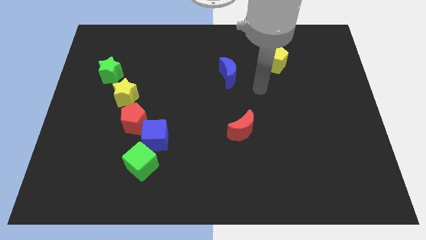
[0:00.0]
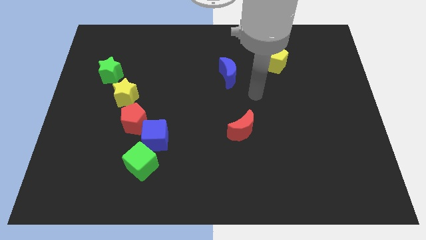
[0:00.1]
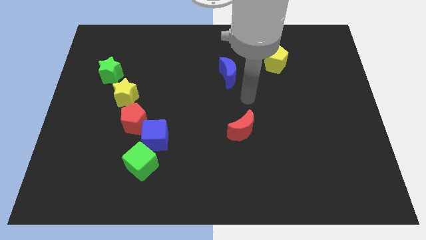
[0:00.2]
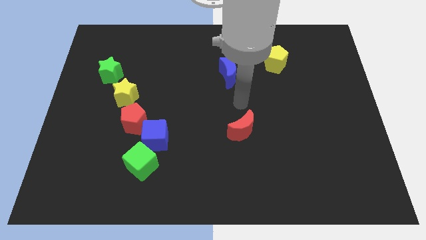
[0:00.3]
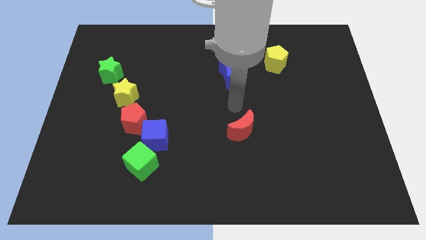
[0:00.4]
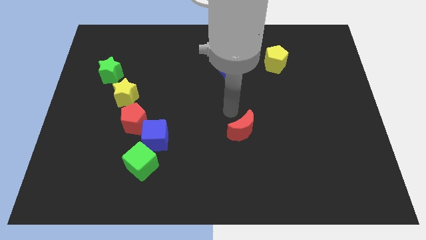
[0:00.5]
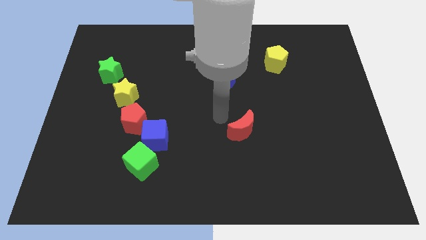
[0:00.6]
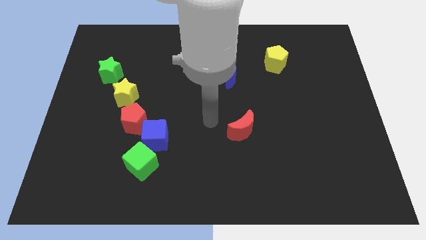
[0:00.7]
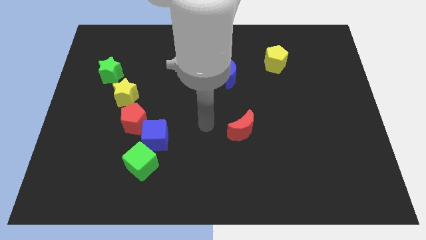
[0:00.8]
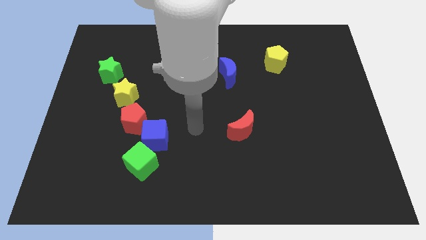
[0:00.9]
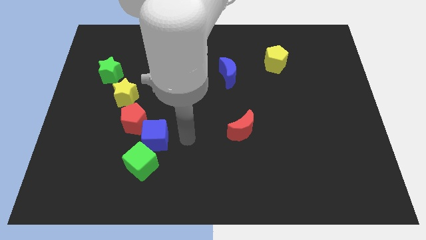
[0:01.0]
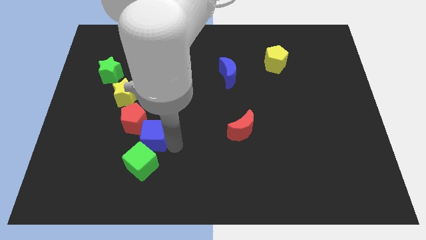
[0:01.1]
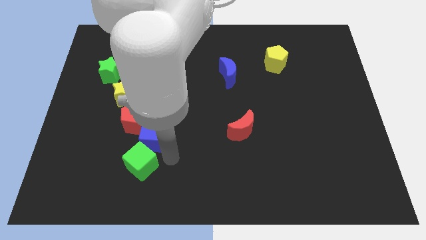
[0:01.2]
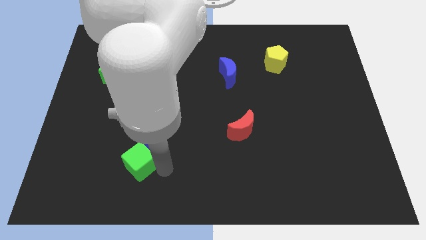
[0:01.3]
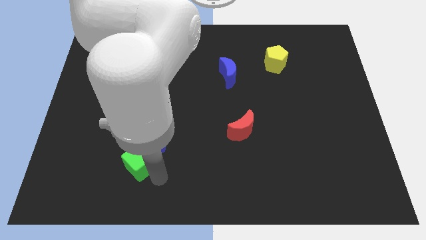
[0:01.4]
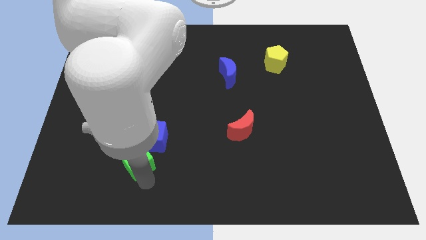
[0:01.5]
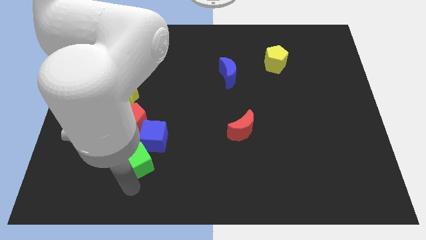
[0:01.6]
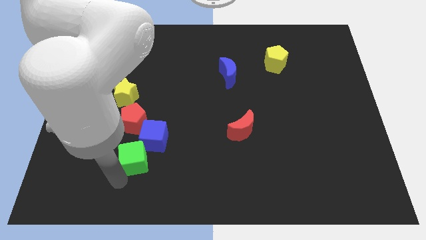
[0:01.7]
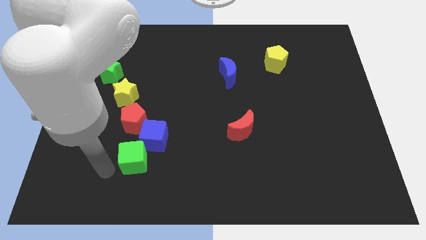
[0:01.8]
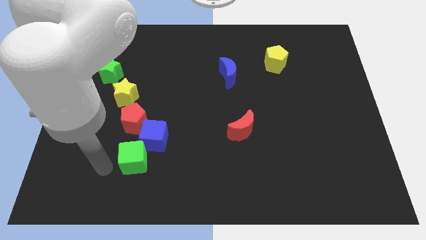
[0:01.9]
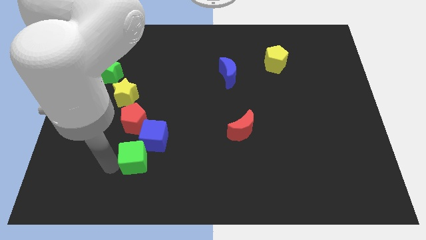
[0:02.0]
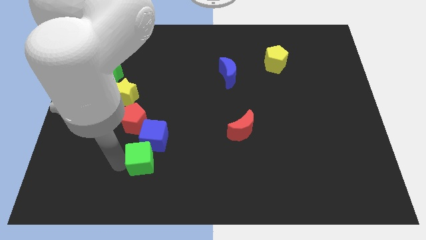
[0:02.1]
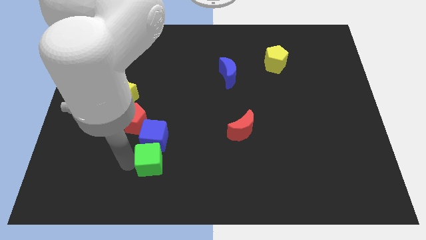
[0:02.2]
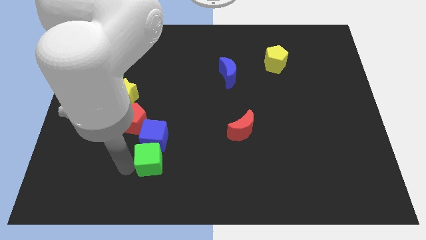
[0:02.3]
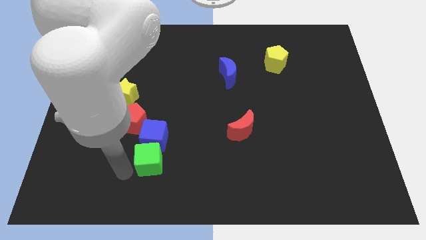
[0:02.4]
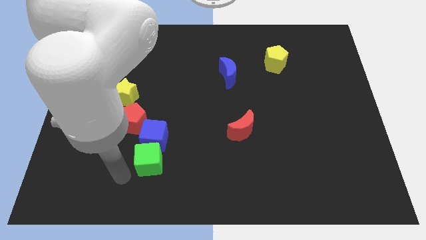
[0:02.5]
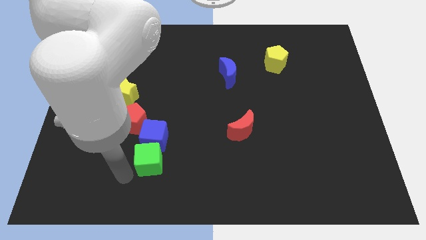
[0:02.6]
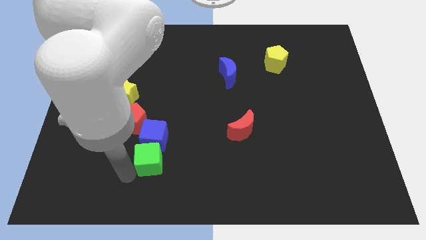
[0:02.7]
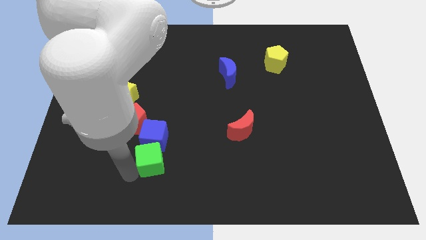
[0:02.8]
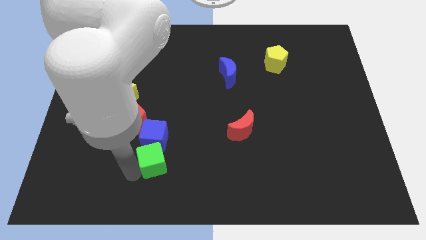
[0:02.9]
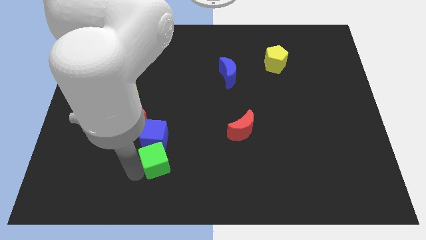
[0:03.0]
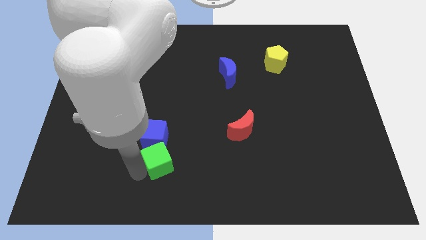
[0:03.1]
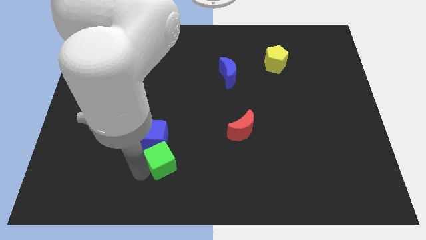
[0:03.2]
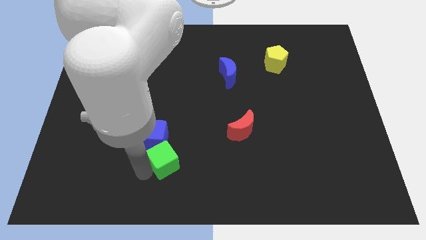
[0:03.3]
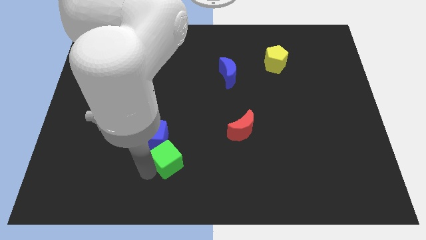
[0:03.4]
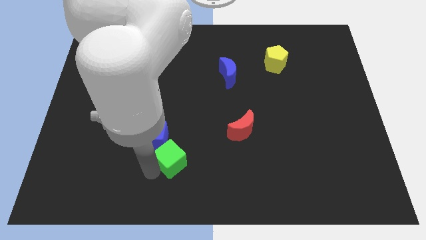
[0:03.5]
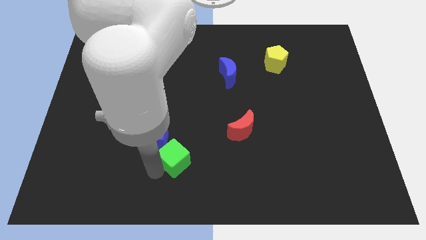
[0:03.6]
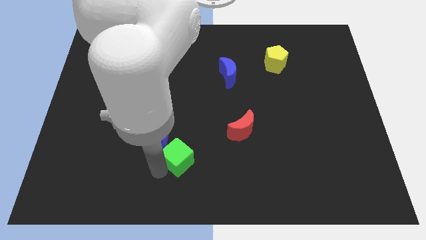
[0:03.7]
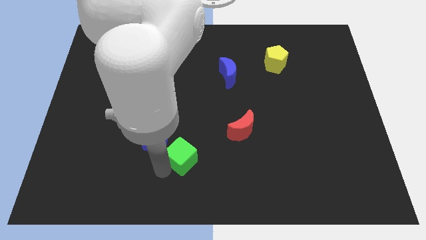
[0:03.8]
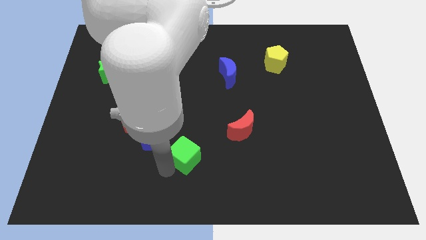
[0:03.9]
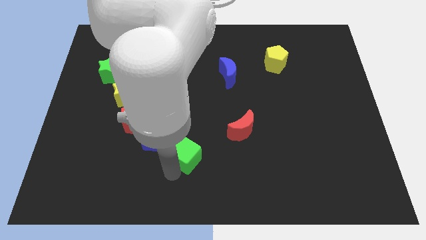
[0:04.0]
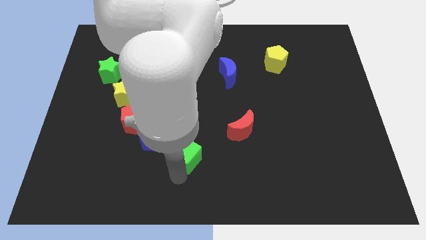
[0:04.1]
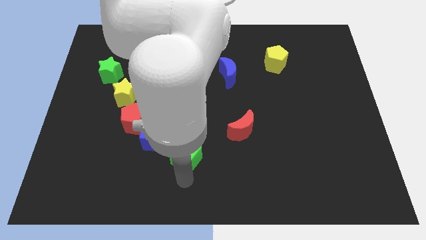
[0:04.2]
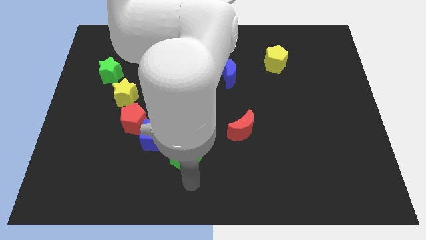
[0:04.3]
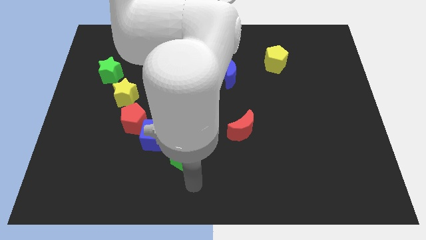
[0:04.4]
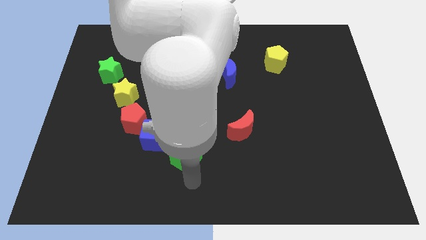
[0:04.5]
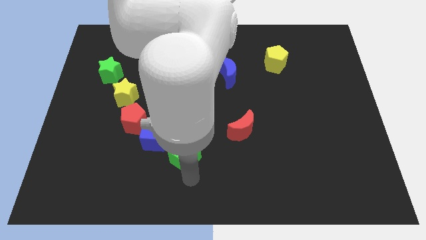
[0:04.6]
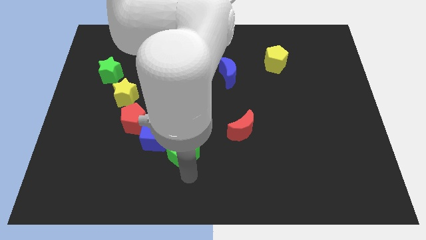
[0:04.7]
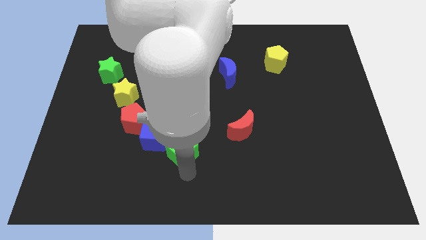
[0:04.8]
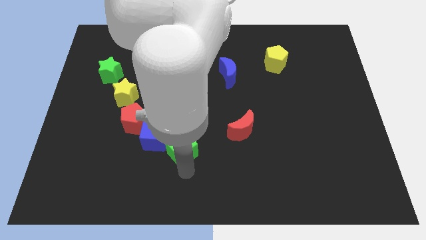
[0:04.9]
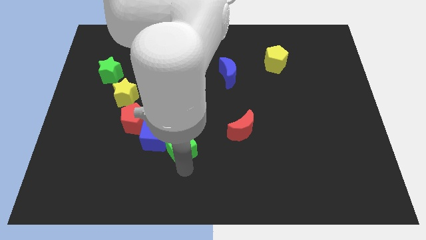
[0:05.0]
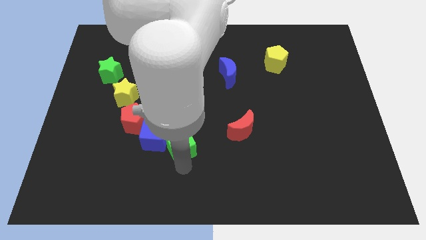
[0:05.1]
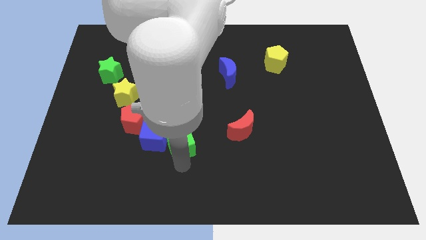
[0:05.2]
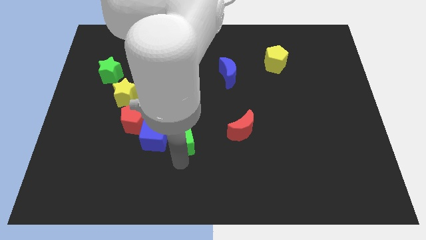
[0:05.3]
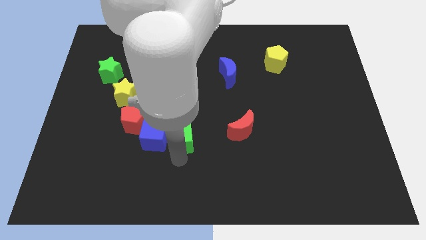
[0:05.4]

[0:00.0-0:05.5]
slide the green cube to the top right of the blue cube

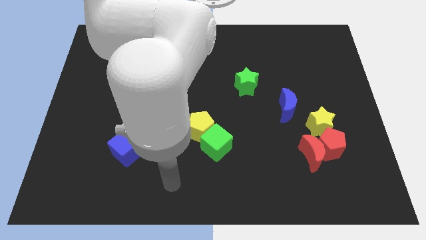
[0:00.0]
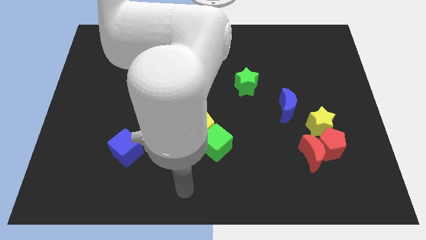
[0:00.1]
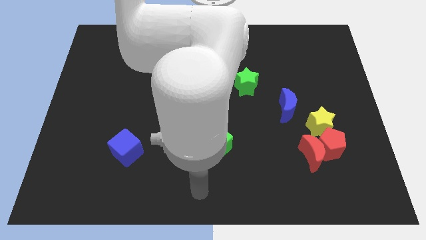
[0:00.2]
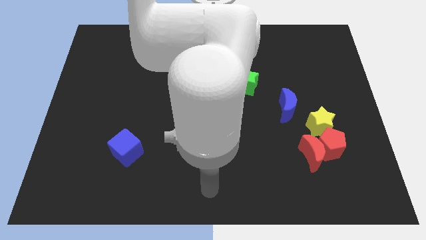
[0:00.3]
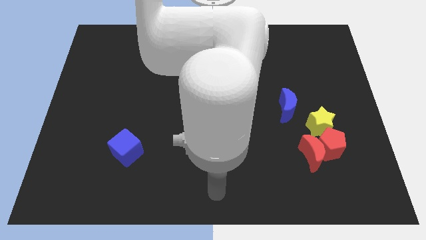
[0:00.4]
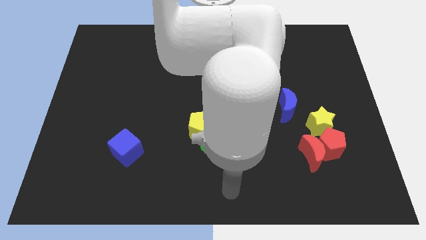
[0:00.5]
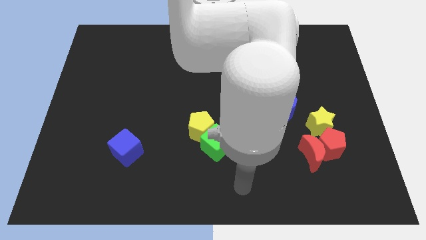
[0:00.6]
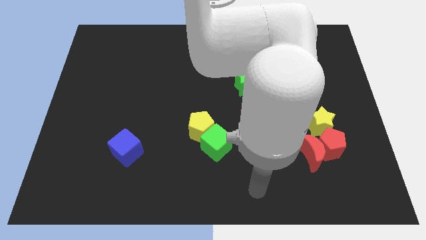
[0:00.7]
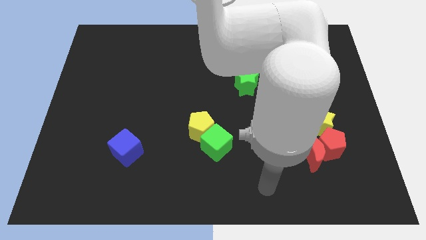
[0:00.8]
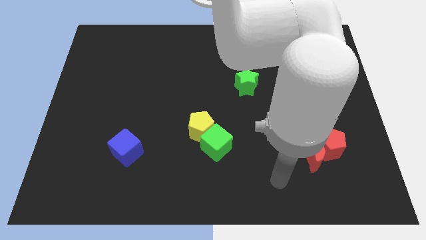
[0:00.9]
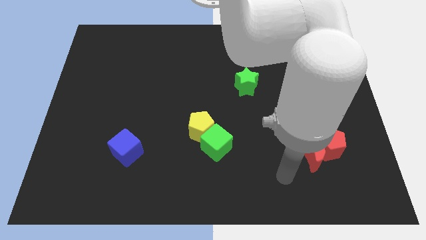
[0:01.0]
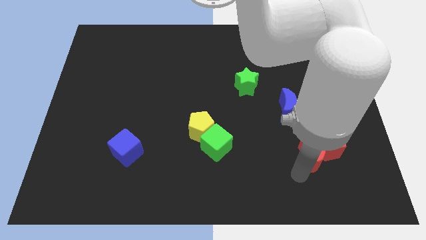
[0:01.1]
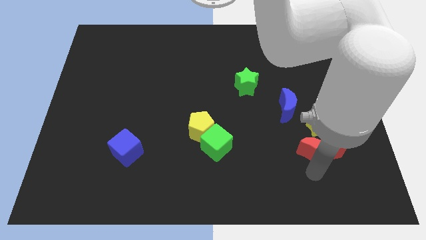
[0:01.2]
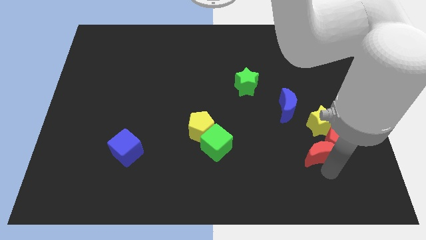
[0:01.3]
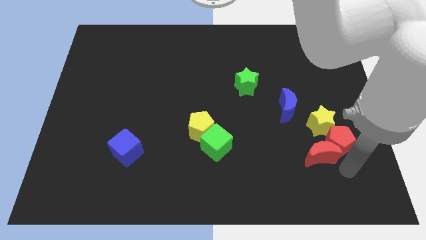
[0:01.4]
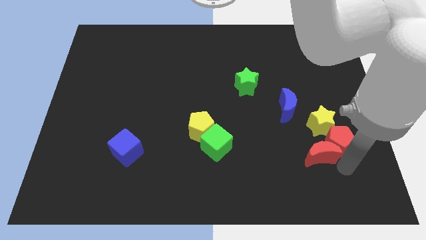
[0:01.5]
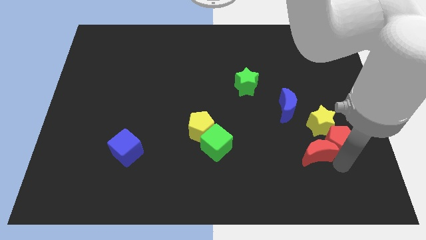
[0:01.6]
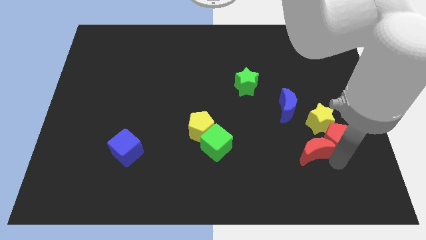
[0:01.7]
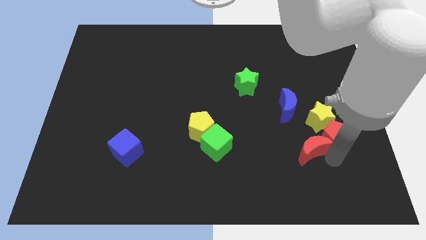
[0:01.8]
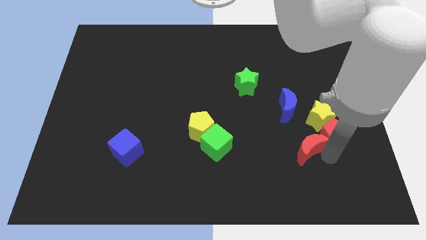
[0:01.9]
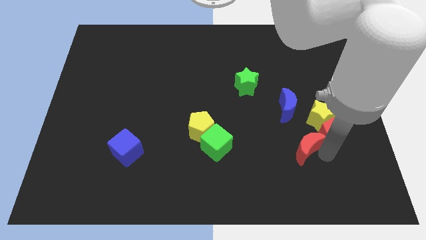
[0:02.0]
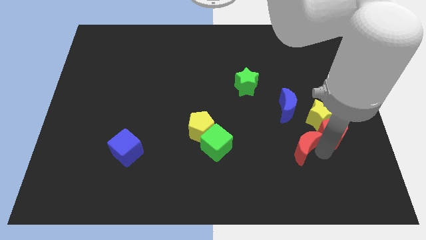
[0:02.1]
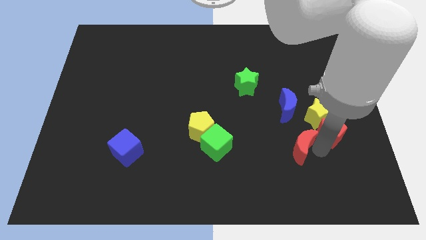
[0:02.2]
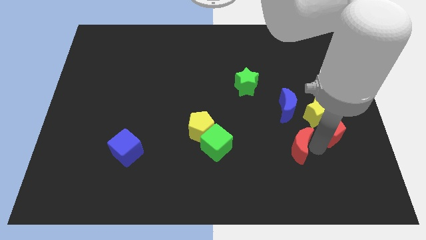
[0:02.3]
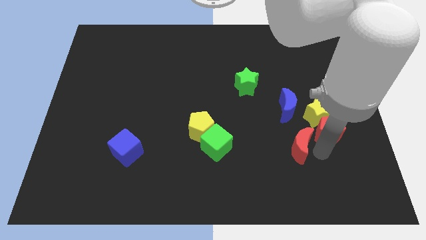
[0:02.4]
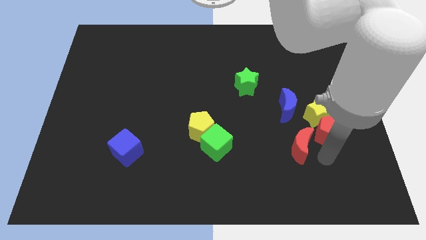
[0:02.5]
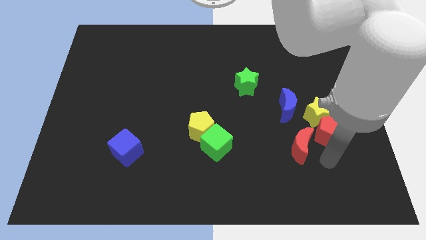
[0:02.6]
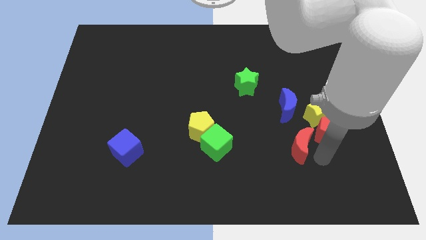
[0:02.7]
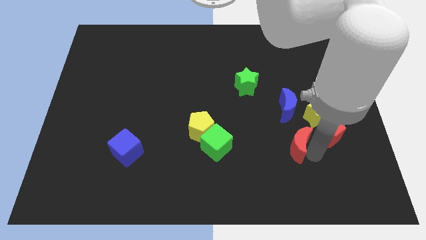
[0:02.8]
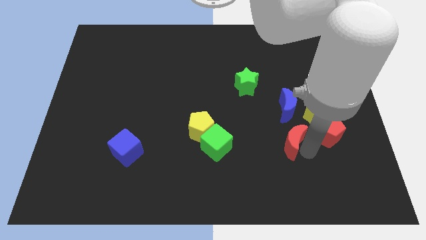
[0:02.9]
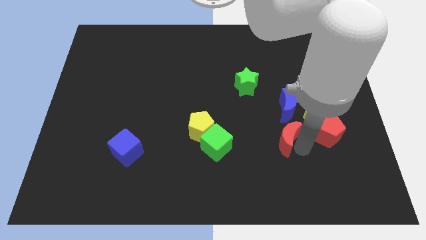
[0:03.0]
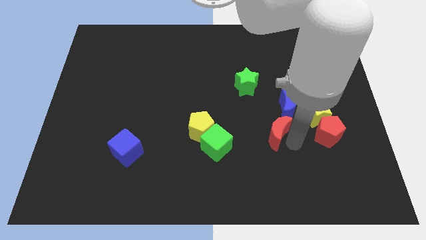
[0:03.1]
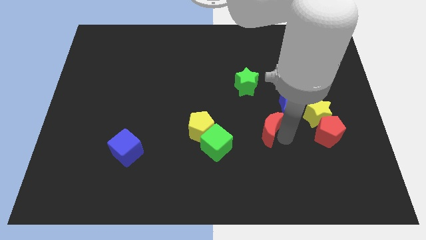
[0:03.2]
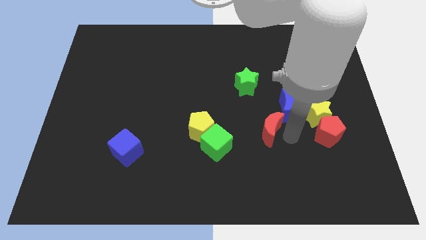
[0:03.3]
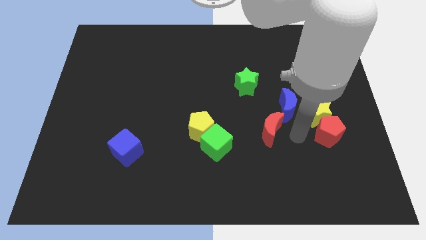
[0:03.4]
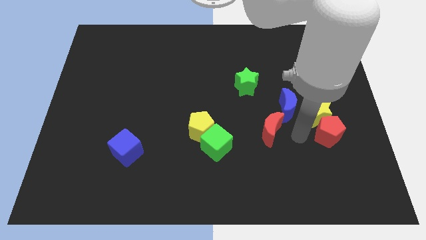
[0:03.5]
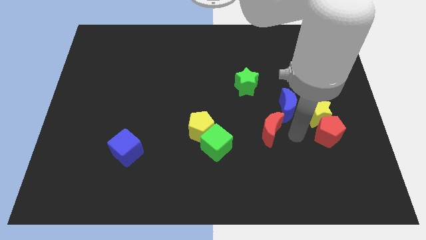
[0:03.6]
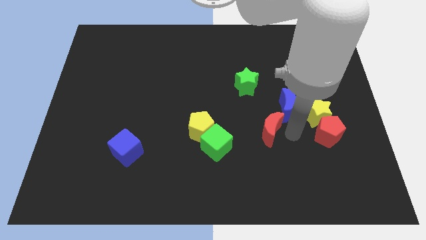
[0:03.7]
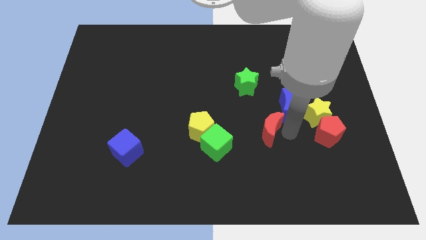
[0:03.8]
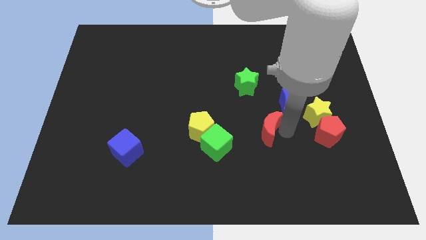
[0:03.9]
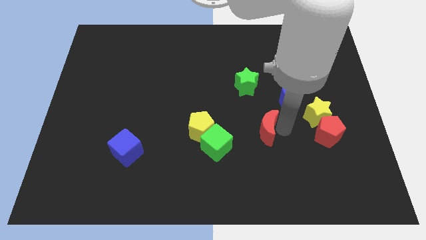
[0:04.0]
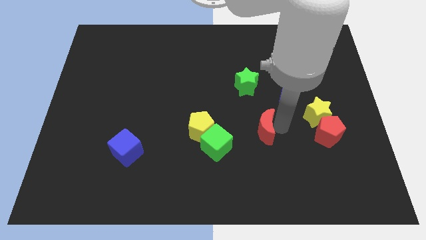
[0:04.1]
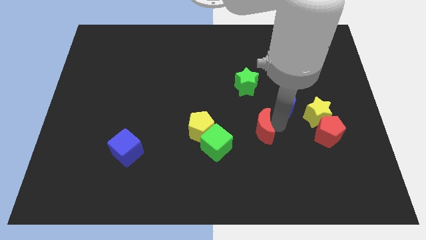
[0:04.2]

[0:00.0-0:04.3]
slide the red moon to the top right of the green cube
